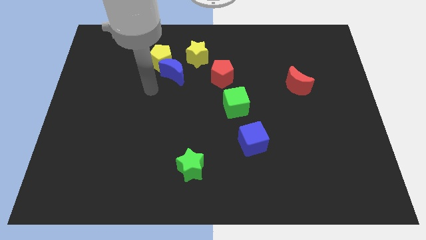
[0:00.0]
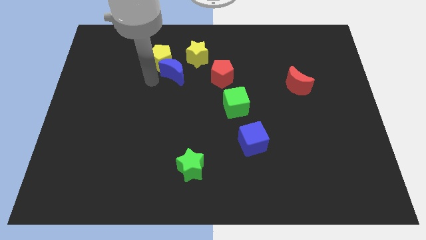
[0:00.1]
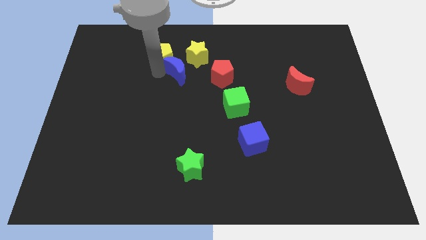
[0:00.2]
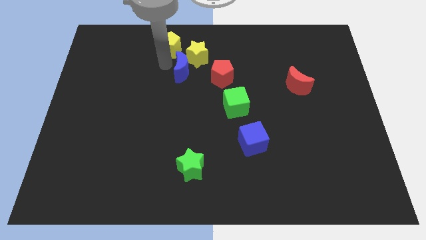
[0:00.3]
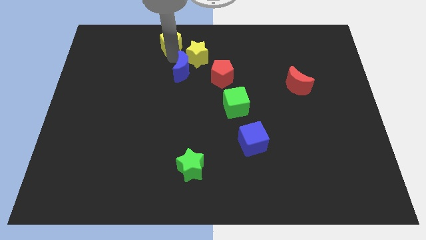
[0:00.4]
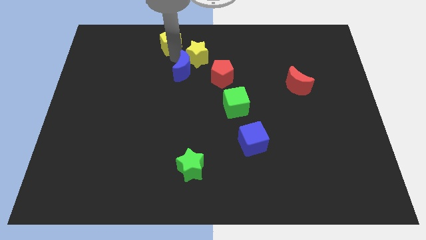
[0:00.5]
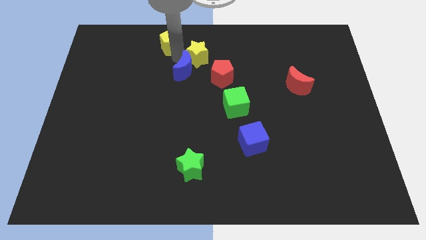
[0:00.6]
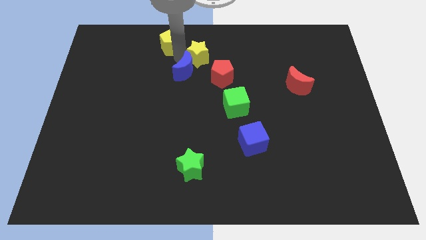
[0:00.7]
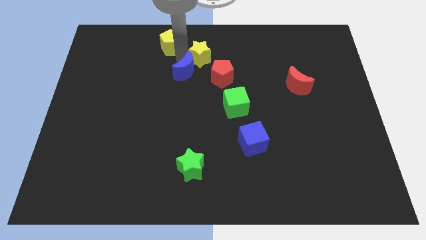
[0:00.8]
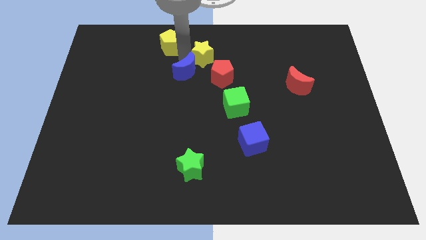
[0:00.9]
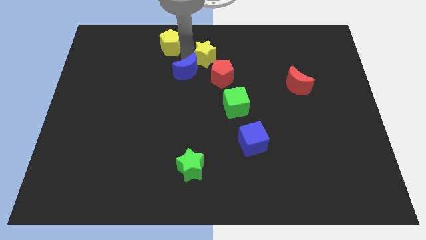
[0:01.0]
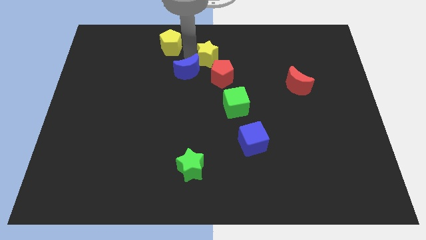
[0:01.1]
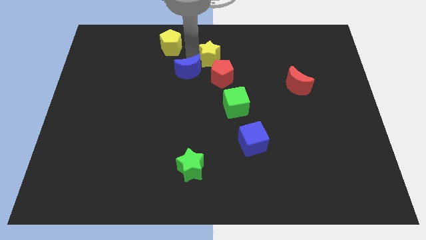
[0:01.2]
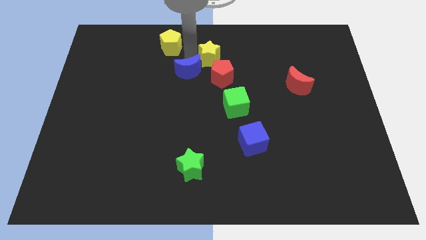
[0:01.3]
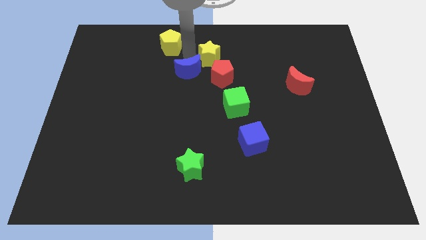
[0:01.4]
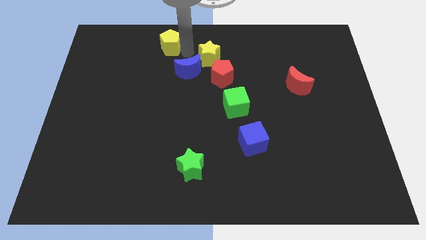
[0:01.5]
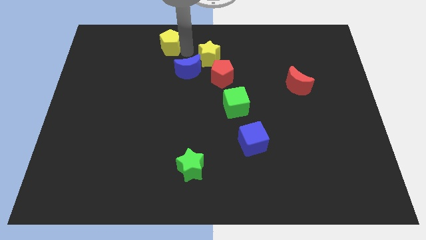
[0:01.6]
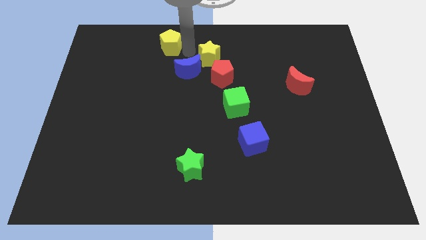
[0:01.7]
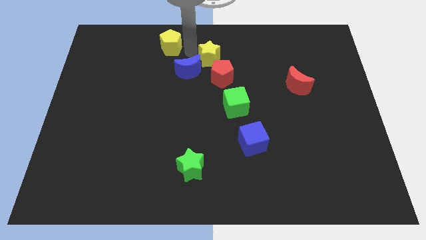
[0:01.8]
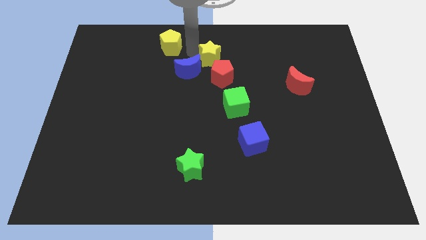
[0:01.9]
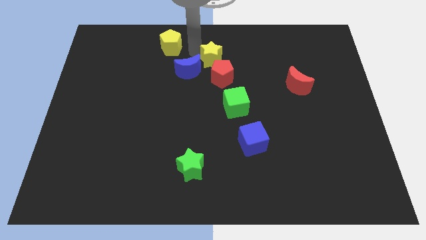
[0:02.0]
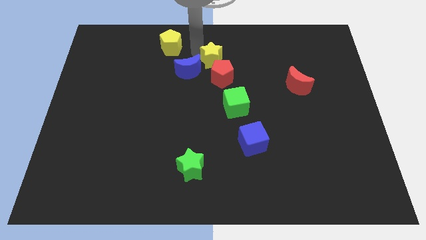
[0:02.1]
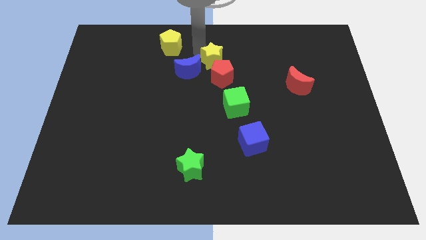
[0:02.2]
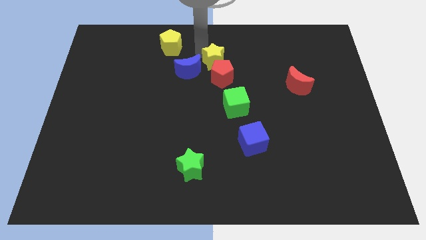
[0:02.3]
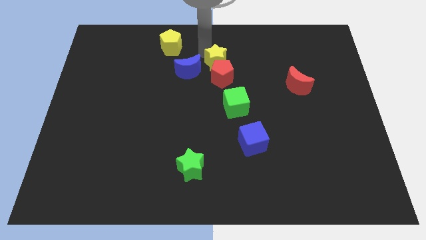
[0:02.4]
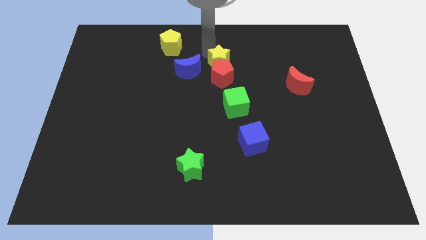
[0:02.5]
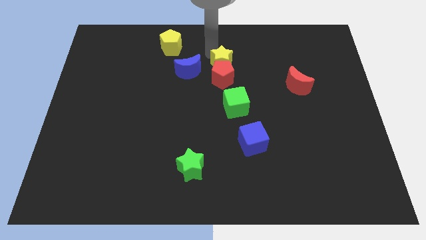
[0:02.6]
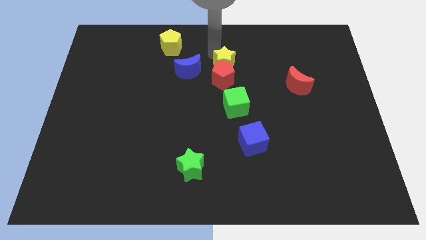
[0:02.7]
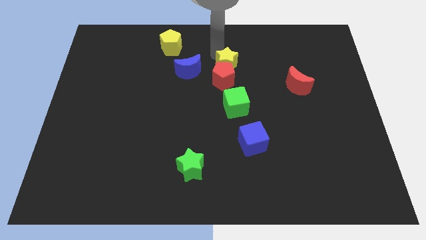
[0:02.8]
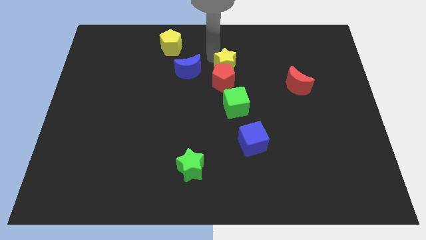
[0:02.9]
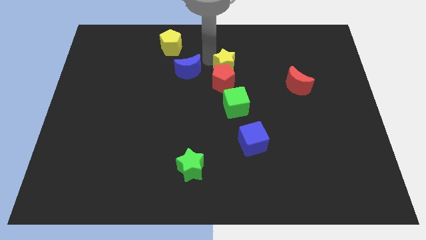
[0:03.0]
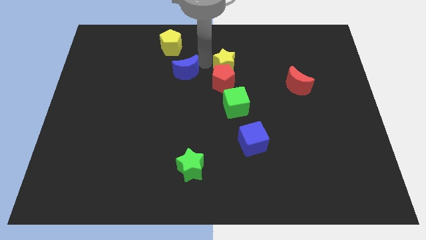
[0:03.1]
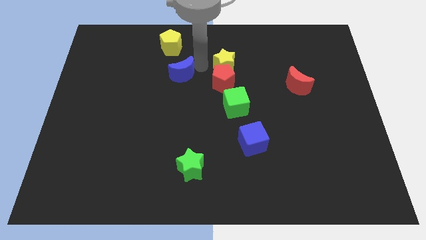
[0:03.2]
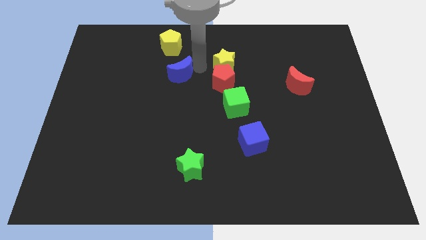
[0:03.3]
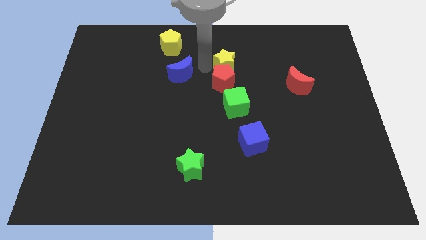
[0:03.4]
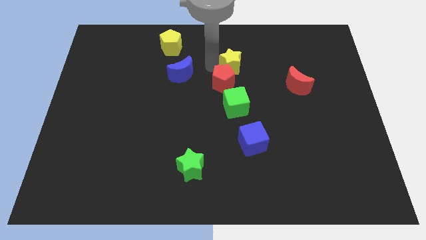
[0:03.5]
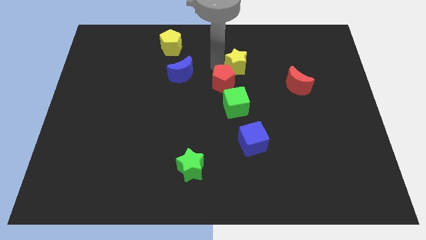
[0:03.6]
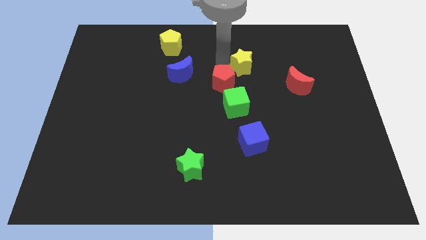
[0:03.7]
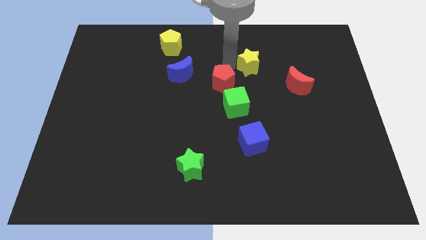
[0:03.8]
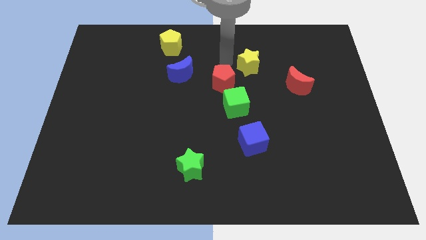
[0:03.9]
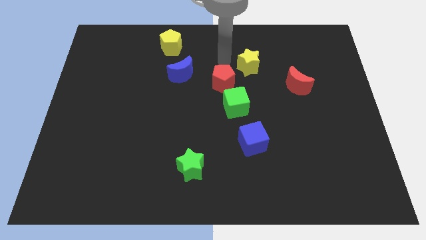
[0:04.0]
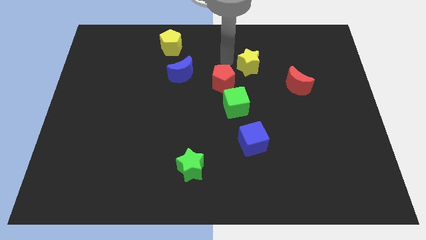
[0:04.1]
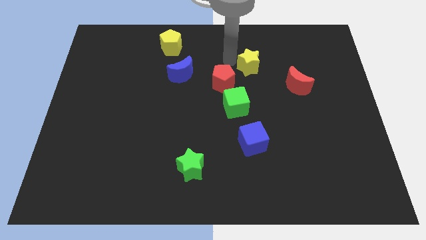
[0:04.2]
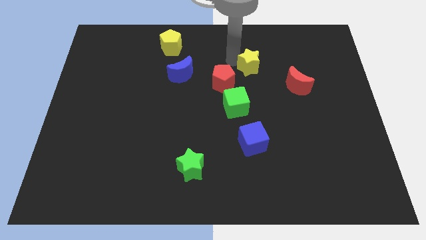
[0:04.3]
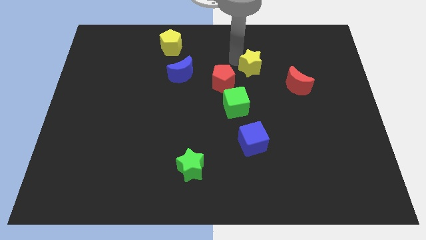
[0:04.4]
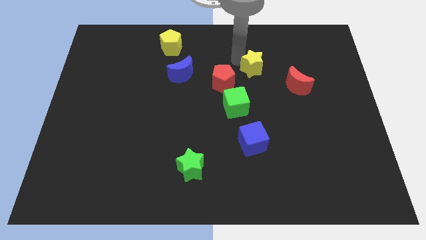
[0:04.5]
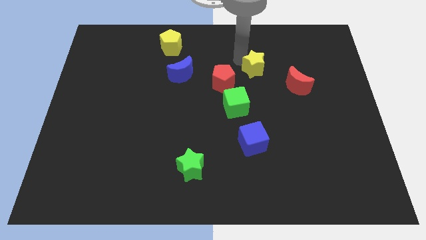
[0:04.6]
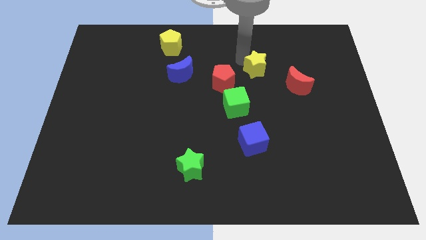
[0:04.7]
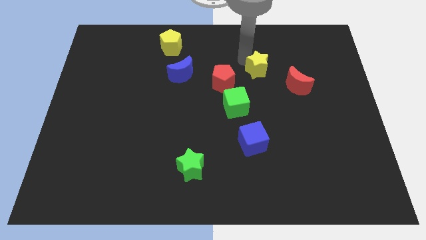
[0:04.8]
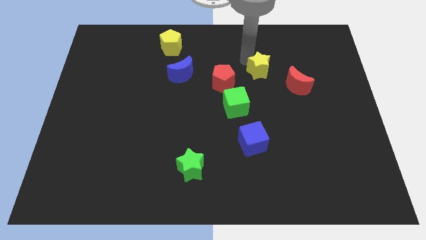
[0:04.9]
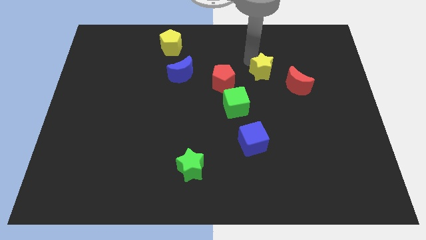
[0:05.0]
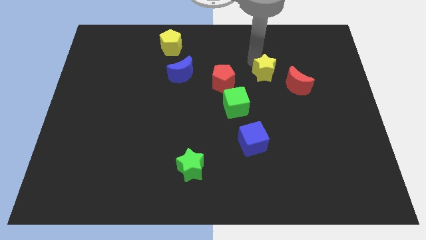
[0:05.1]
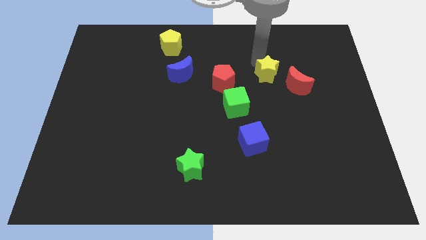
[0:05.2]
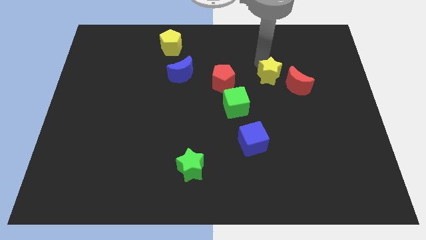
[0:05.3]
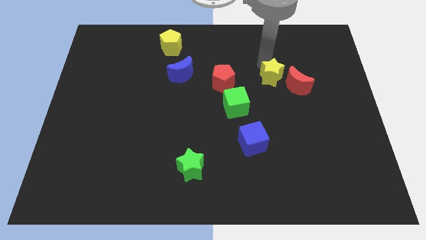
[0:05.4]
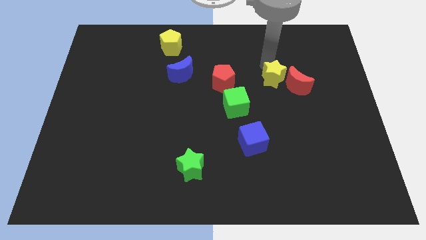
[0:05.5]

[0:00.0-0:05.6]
move the yellow star towards the red moon
